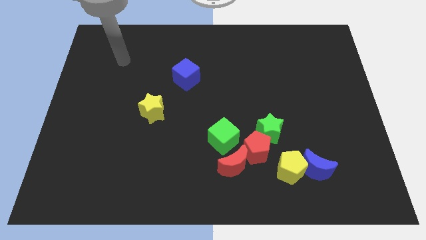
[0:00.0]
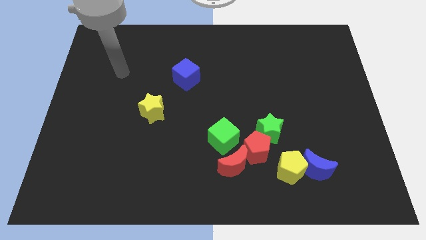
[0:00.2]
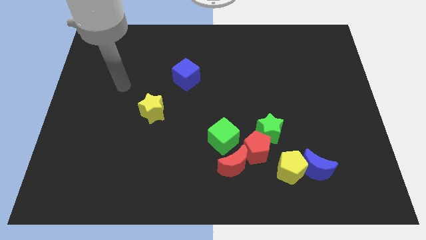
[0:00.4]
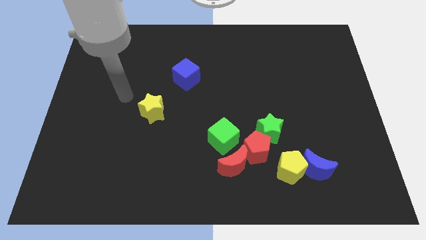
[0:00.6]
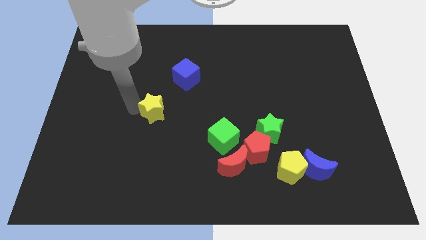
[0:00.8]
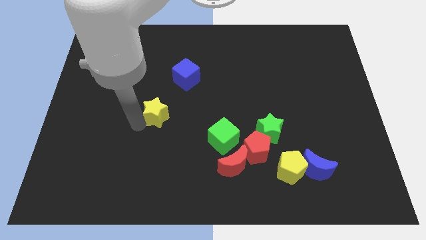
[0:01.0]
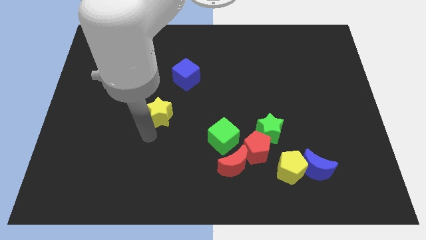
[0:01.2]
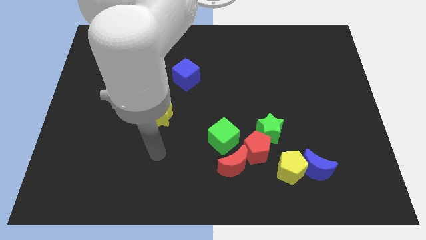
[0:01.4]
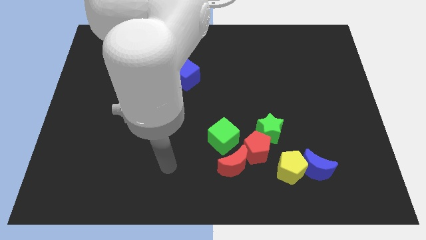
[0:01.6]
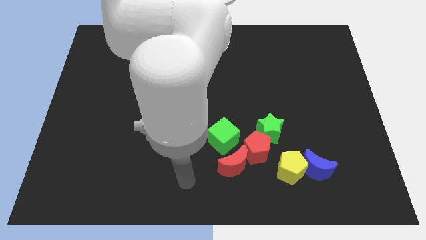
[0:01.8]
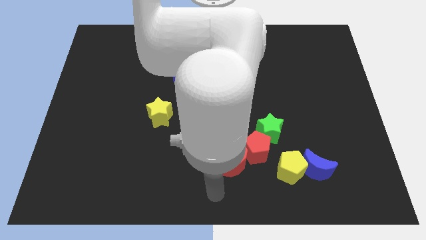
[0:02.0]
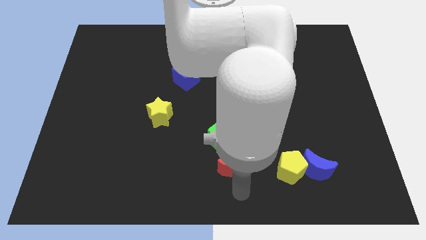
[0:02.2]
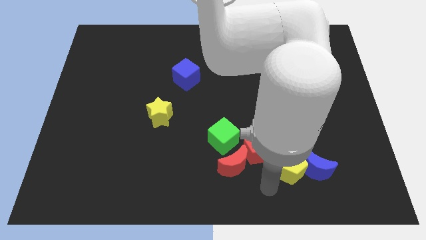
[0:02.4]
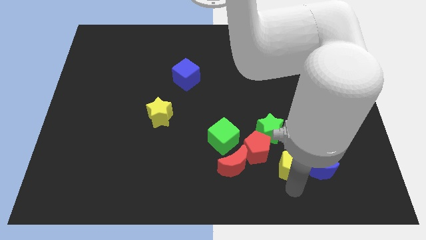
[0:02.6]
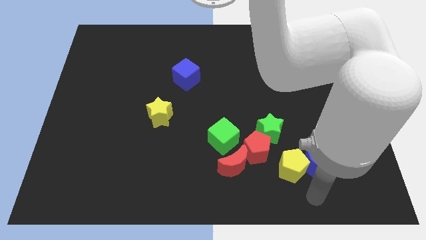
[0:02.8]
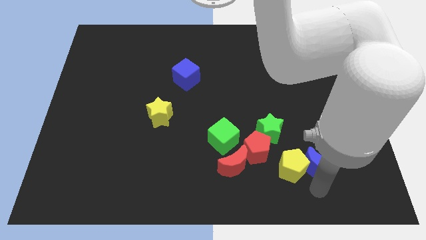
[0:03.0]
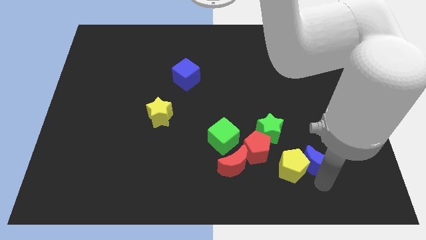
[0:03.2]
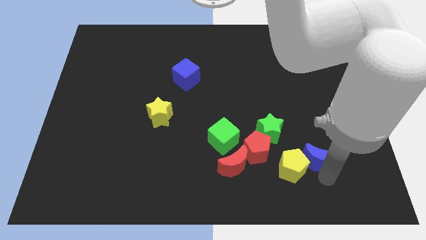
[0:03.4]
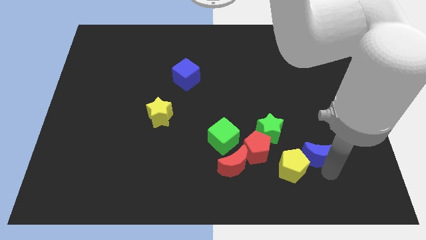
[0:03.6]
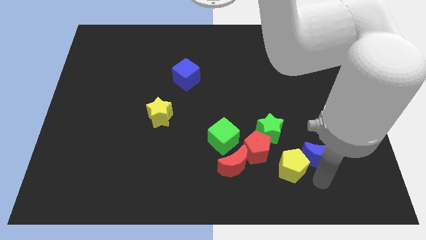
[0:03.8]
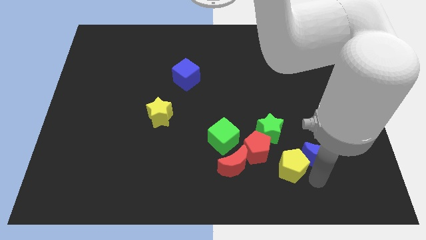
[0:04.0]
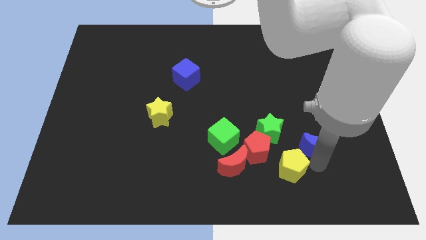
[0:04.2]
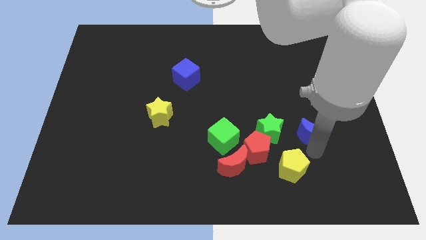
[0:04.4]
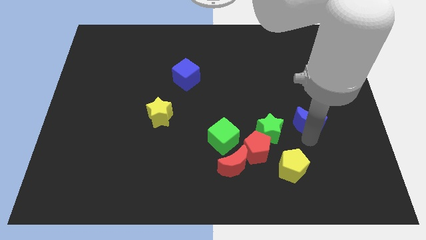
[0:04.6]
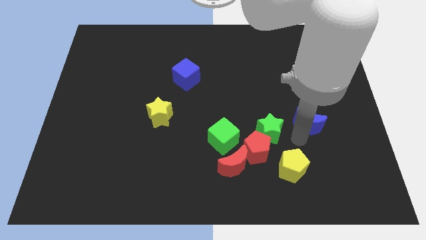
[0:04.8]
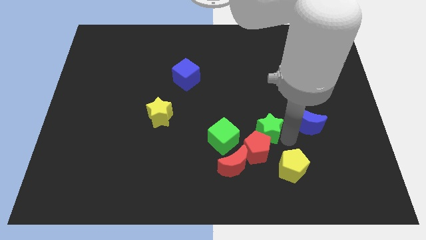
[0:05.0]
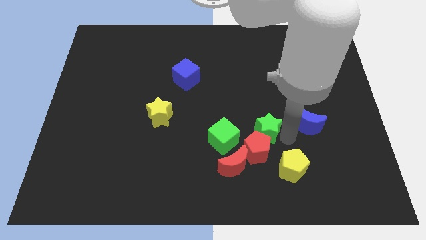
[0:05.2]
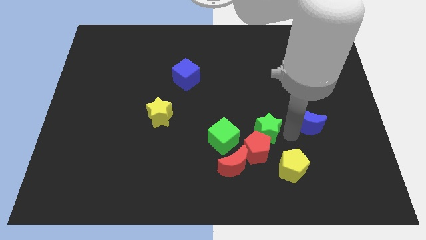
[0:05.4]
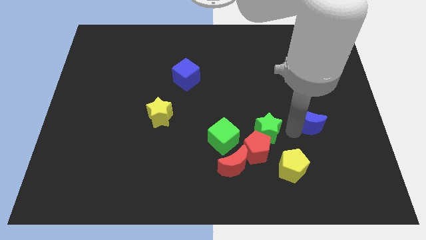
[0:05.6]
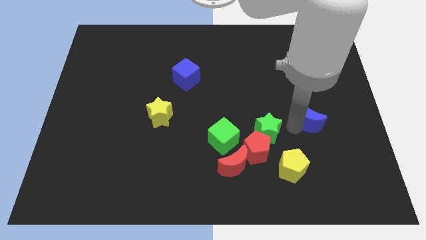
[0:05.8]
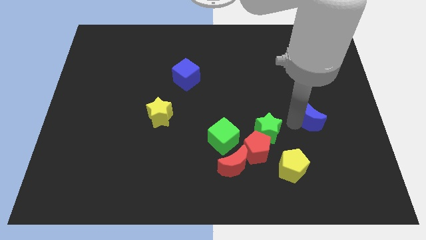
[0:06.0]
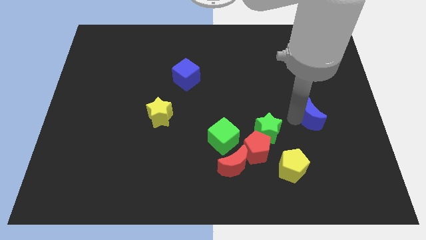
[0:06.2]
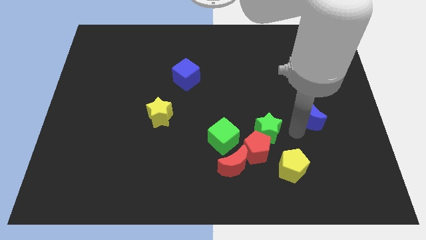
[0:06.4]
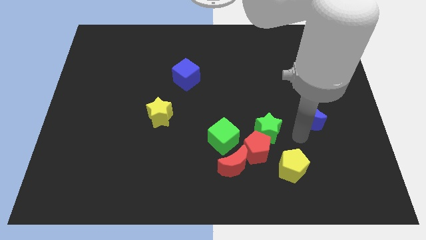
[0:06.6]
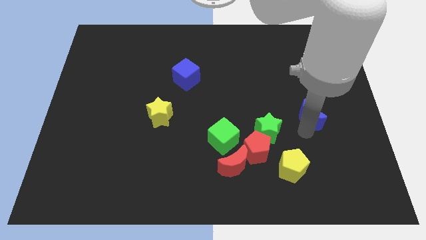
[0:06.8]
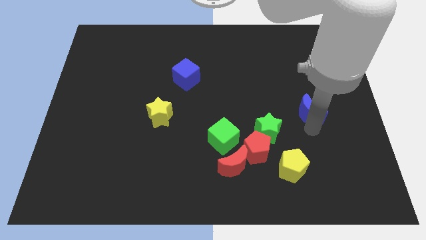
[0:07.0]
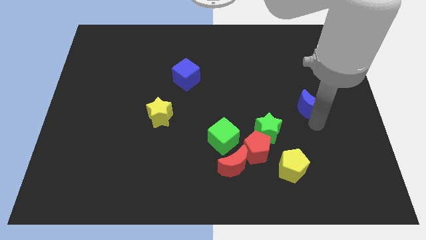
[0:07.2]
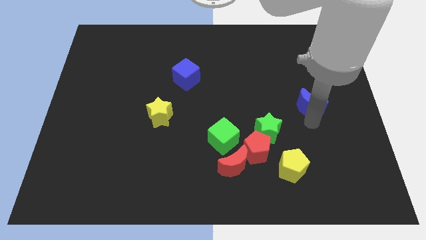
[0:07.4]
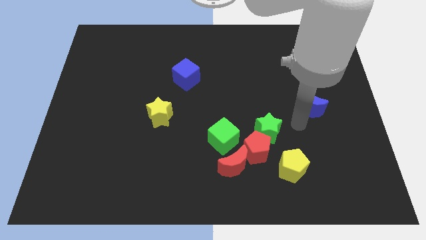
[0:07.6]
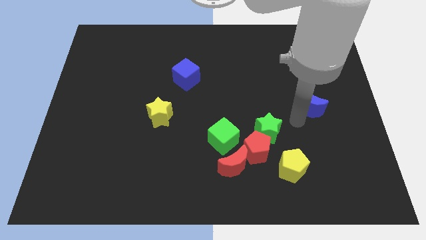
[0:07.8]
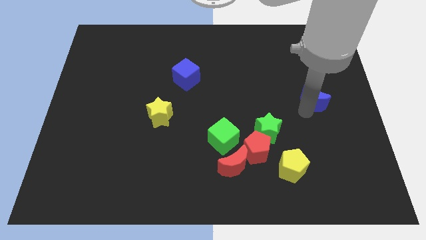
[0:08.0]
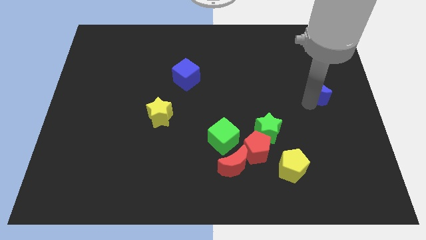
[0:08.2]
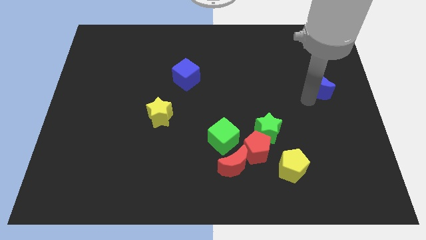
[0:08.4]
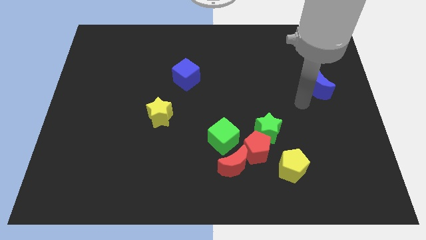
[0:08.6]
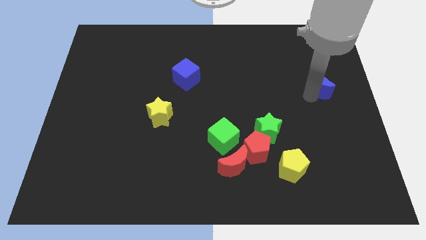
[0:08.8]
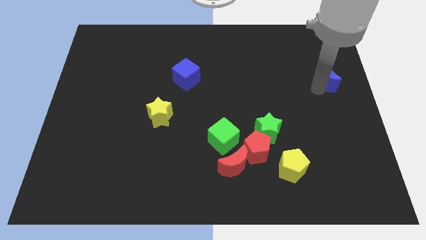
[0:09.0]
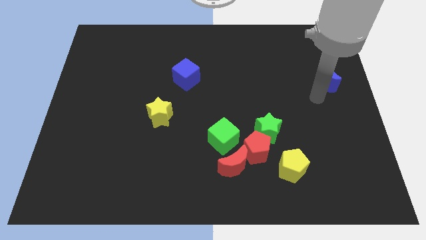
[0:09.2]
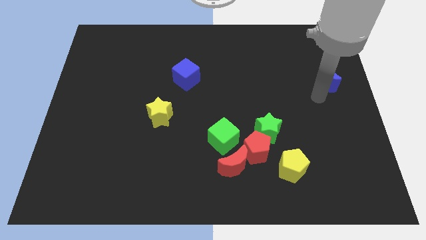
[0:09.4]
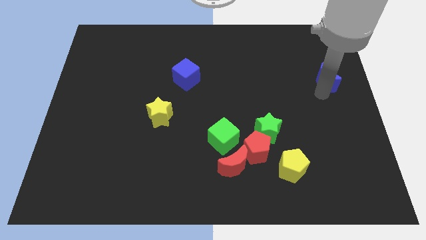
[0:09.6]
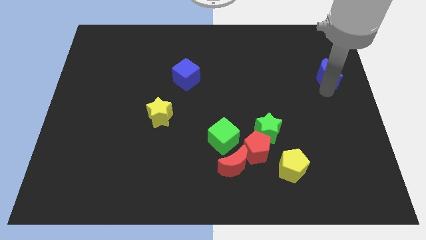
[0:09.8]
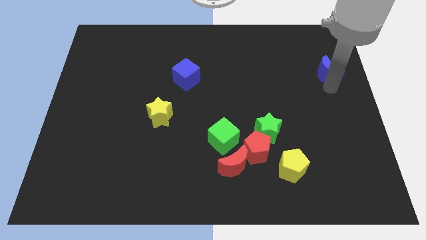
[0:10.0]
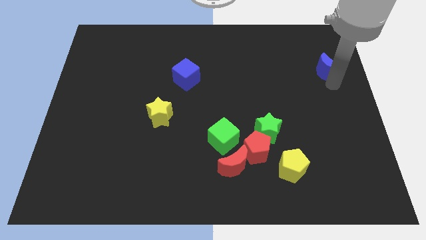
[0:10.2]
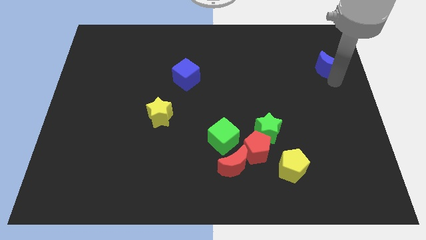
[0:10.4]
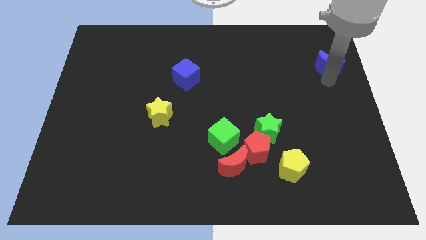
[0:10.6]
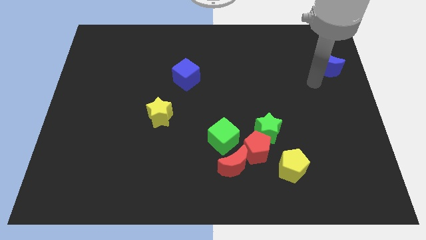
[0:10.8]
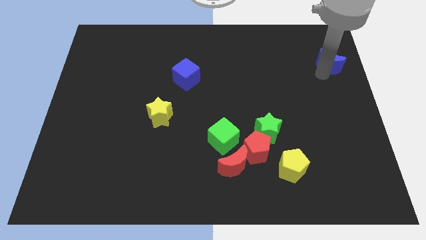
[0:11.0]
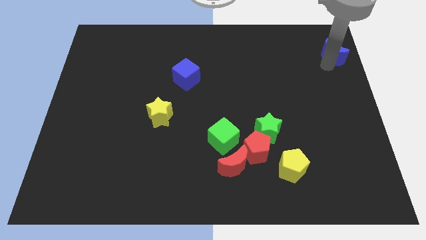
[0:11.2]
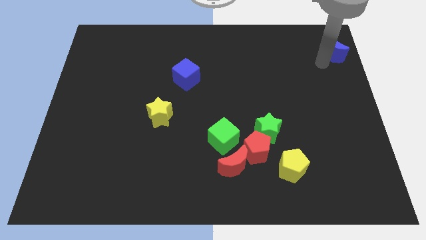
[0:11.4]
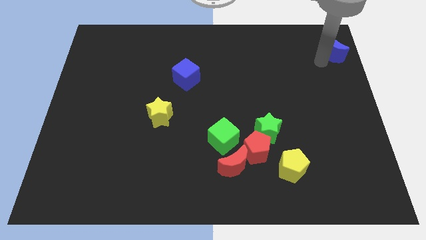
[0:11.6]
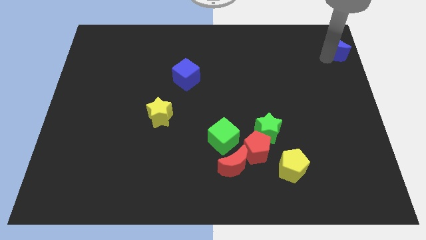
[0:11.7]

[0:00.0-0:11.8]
put the blue moon to the top right of the board

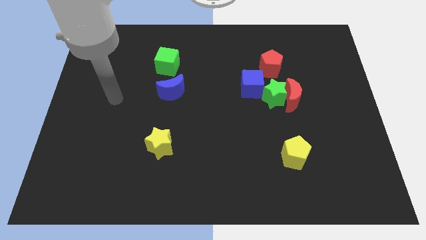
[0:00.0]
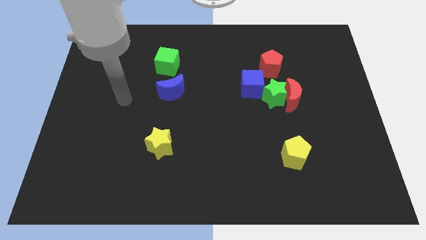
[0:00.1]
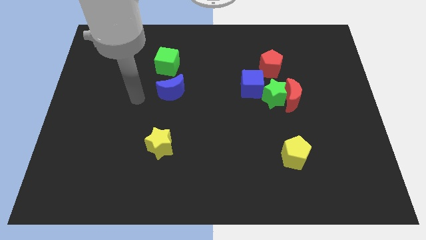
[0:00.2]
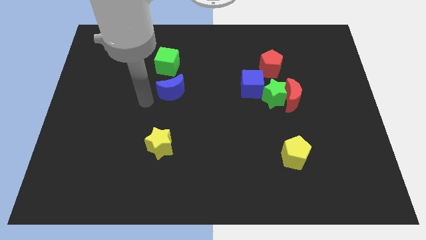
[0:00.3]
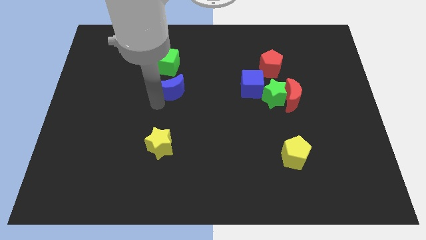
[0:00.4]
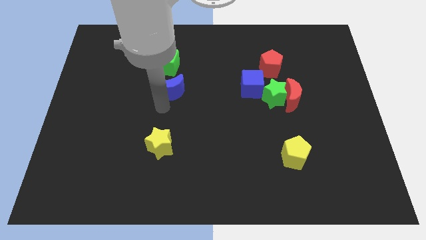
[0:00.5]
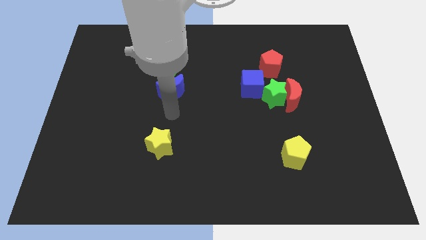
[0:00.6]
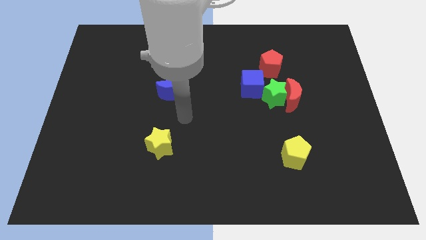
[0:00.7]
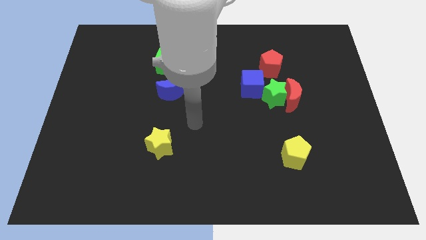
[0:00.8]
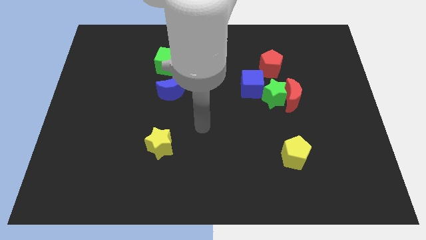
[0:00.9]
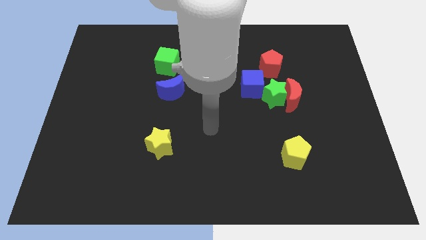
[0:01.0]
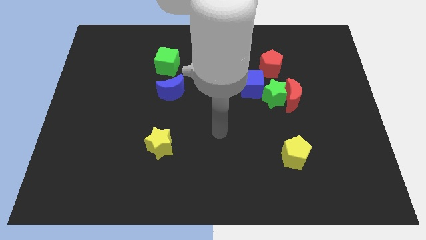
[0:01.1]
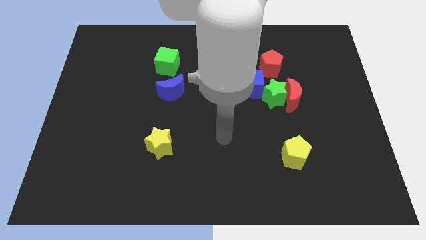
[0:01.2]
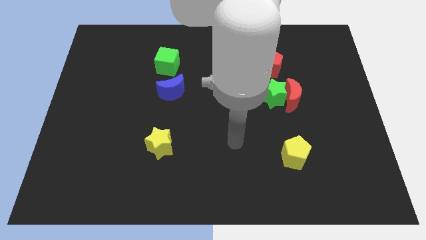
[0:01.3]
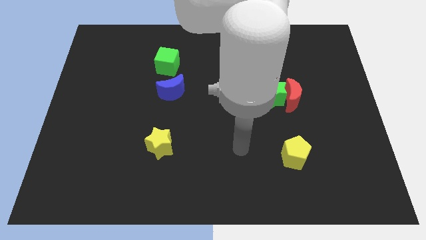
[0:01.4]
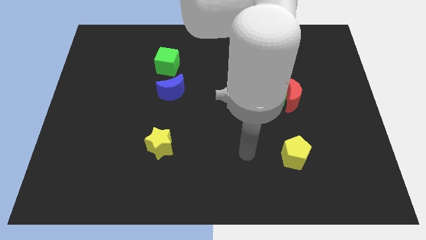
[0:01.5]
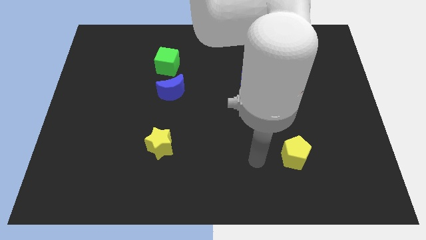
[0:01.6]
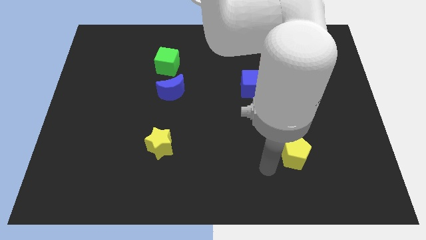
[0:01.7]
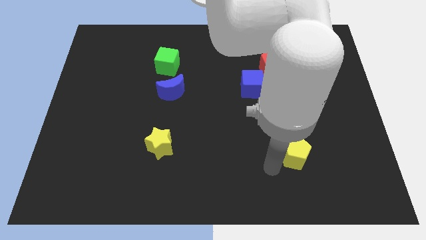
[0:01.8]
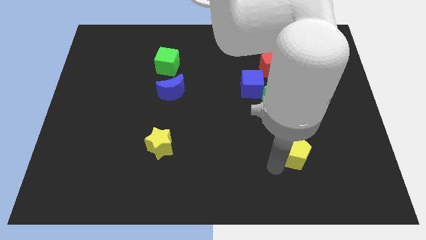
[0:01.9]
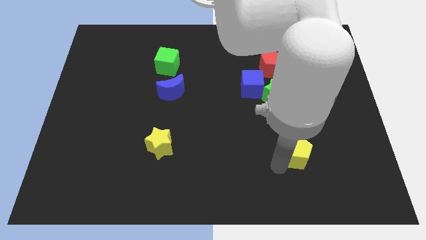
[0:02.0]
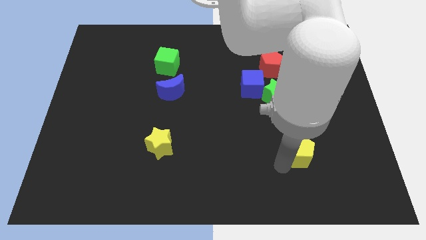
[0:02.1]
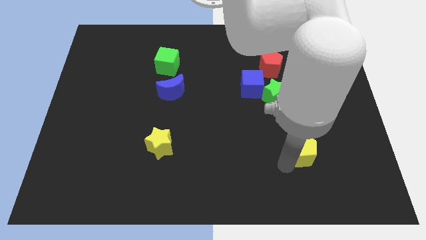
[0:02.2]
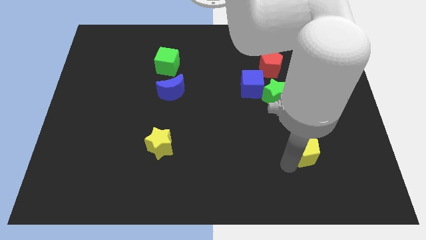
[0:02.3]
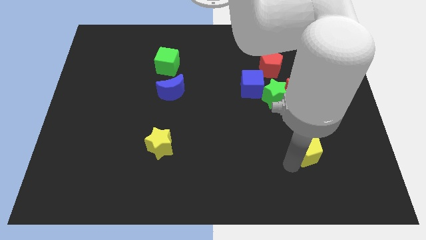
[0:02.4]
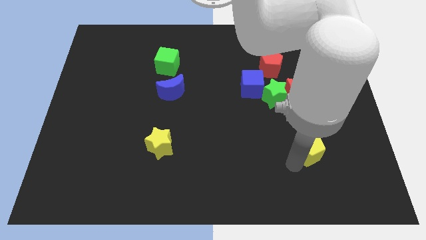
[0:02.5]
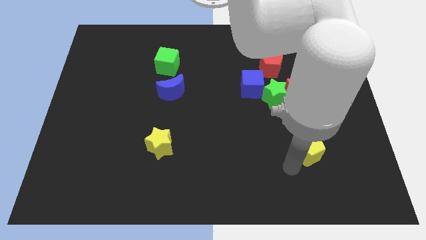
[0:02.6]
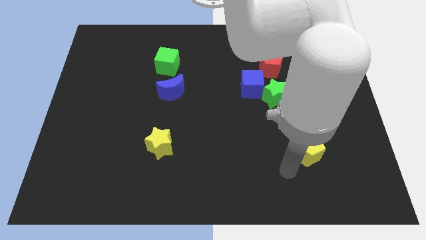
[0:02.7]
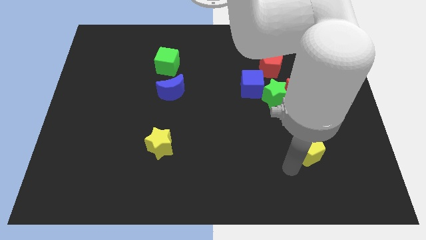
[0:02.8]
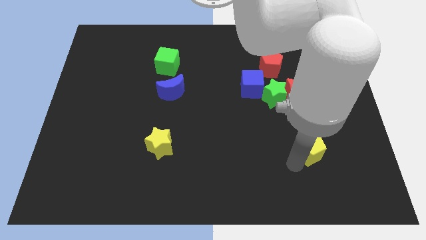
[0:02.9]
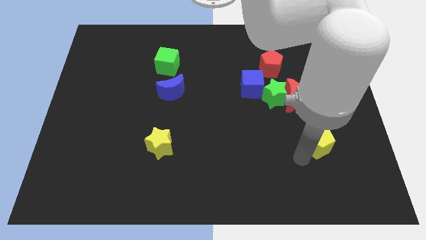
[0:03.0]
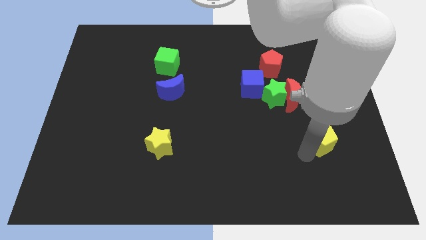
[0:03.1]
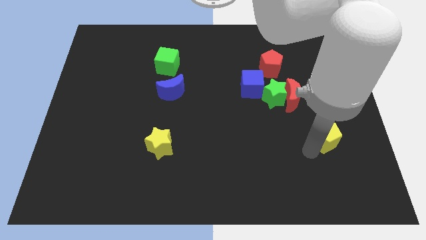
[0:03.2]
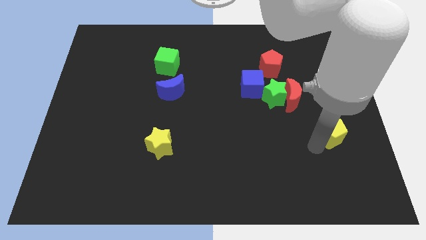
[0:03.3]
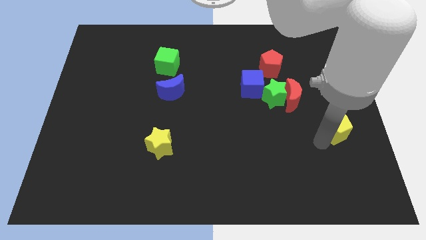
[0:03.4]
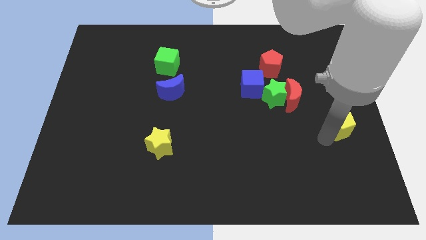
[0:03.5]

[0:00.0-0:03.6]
put the yellow pentagon to the right side of the board
